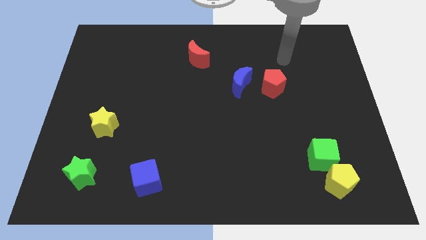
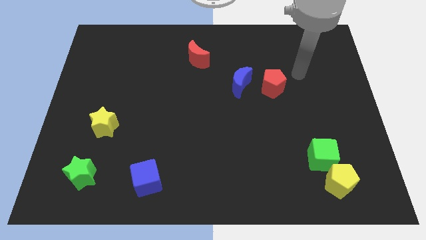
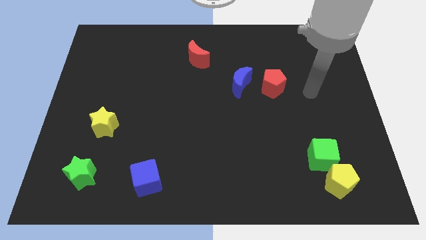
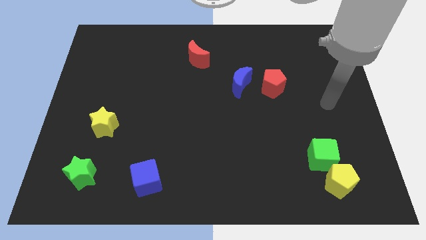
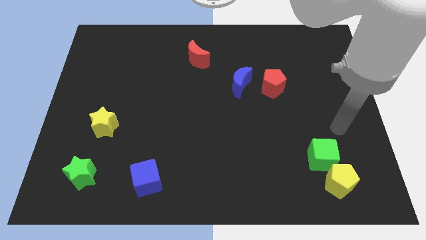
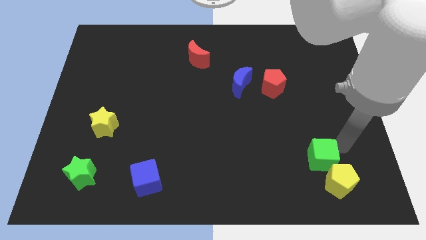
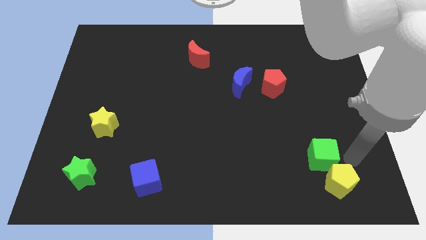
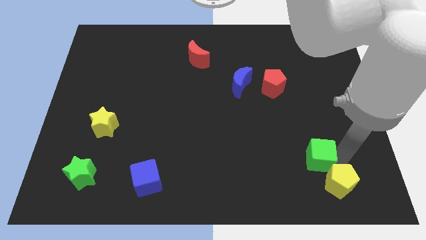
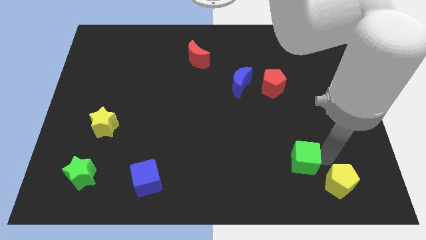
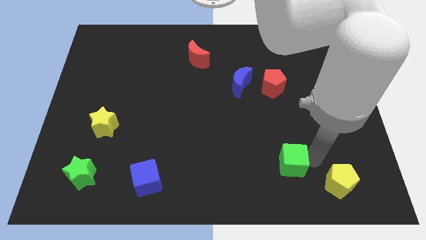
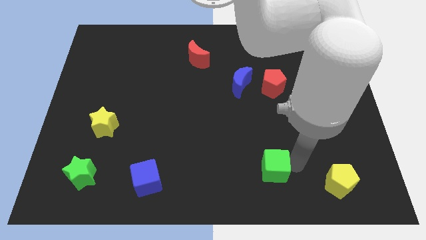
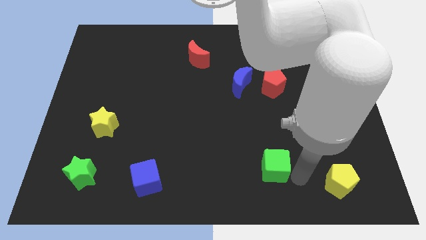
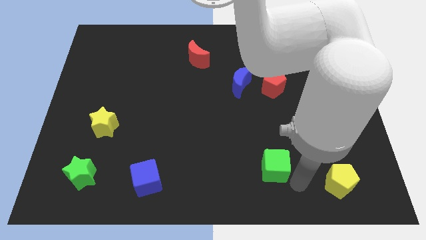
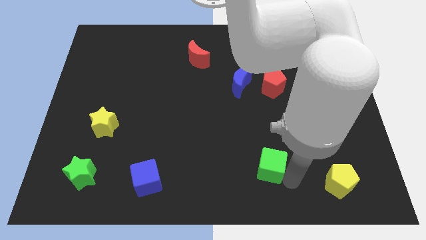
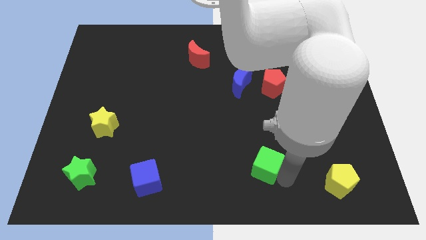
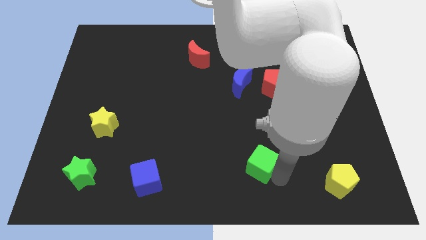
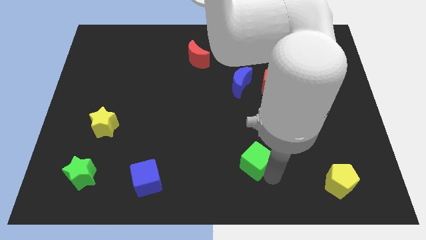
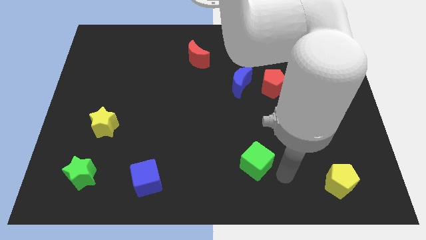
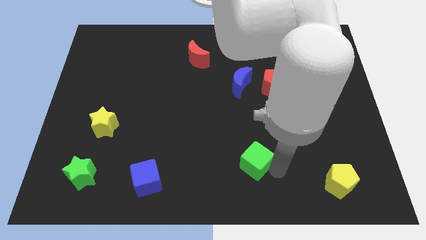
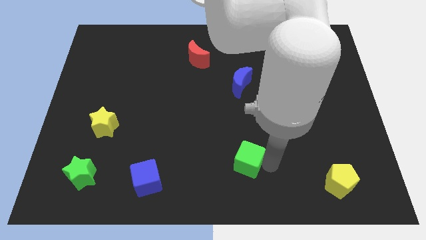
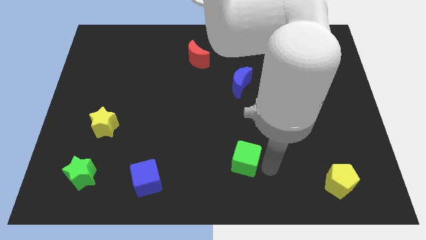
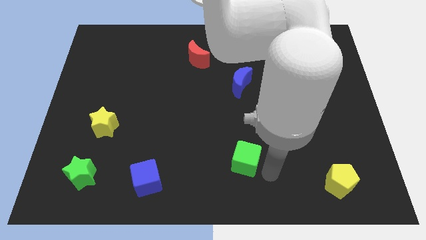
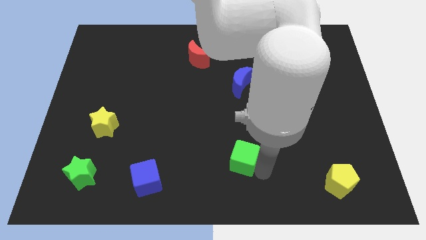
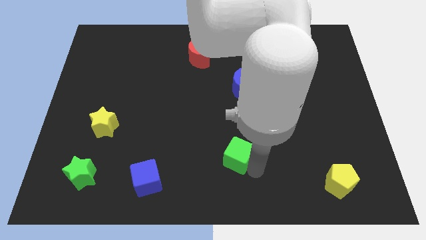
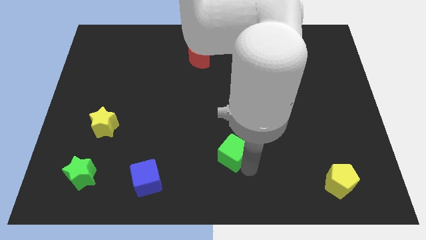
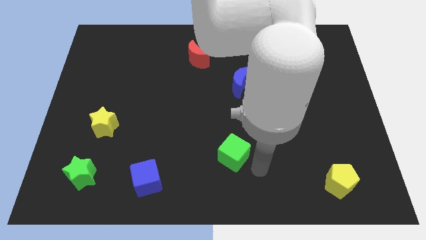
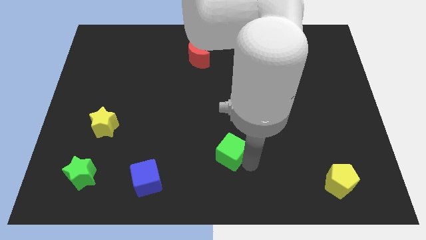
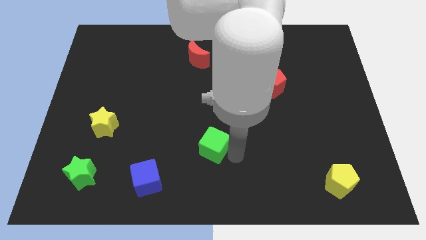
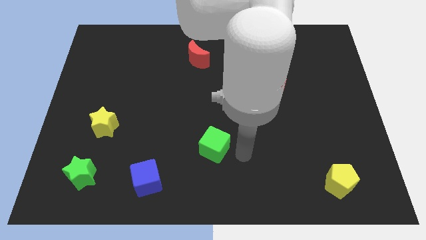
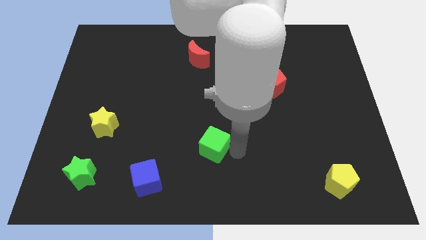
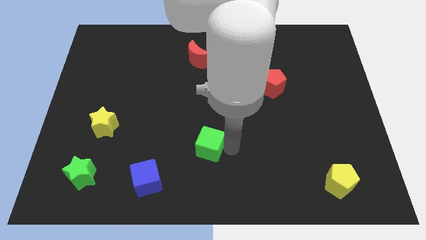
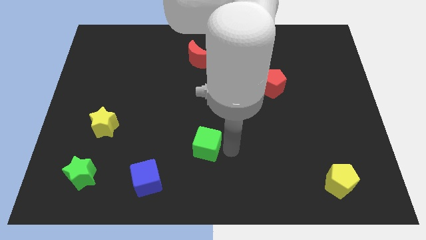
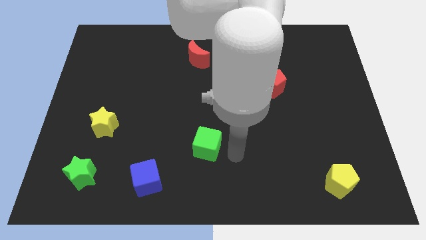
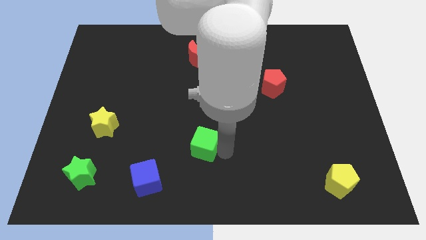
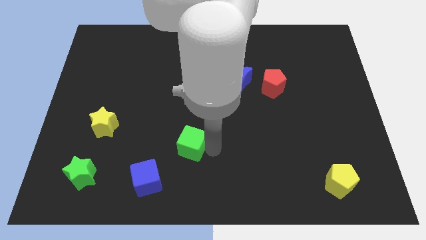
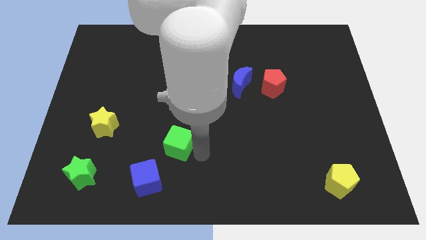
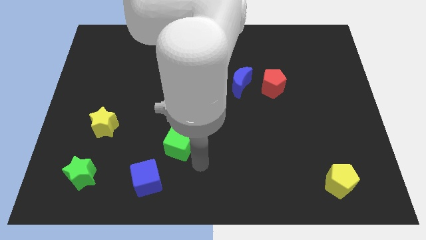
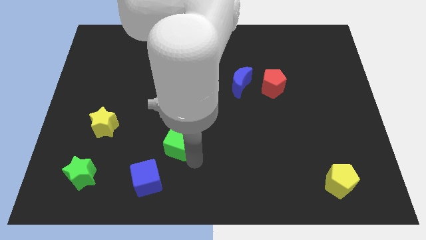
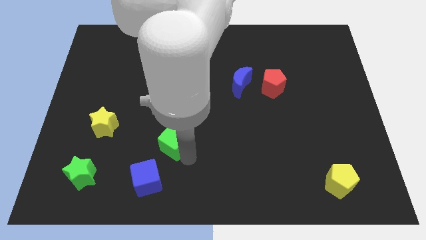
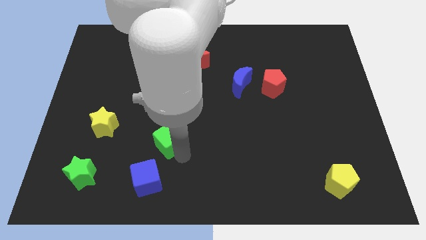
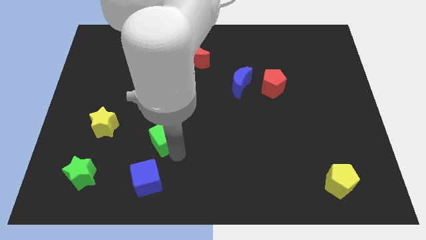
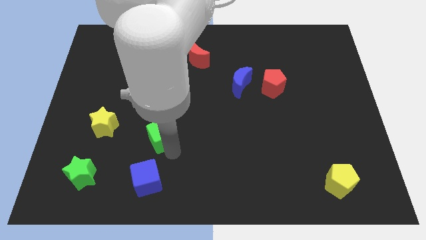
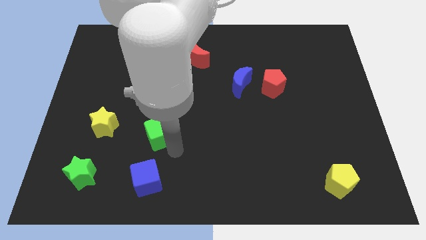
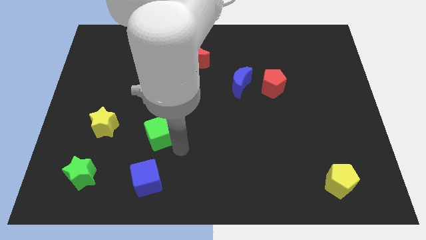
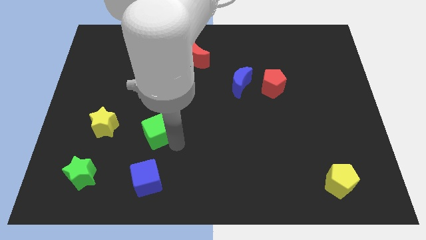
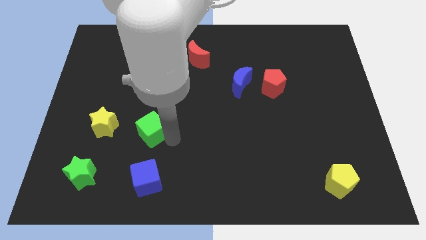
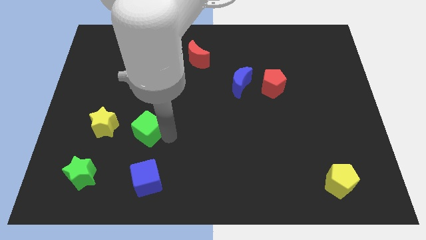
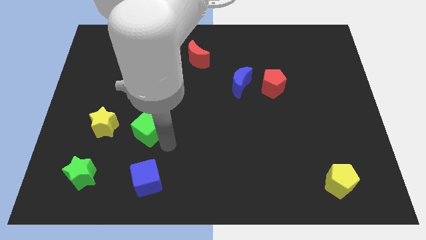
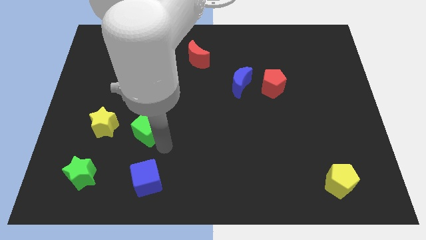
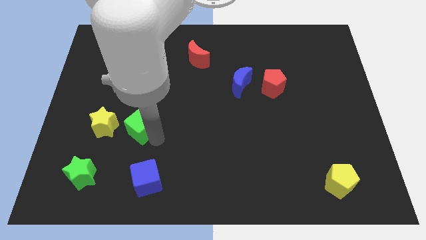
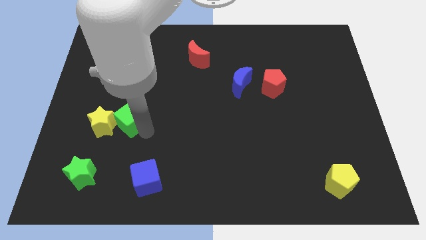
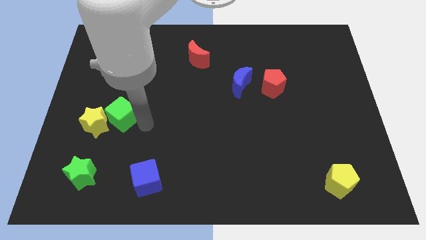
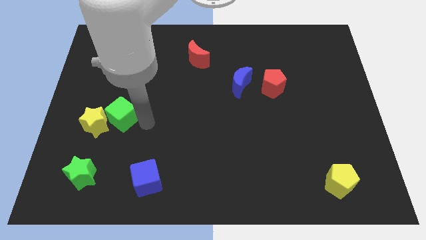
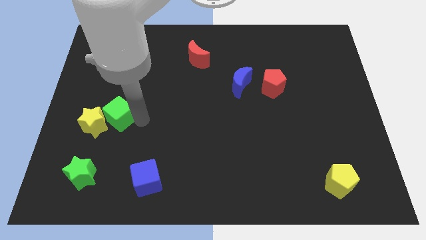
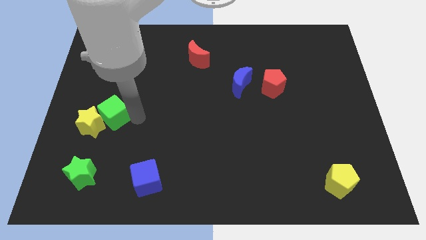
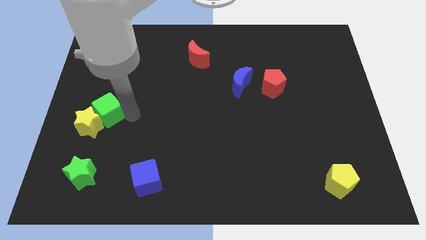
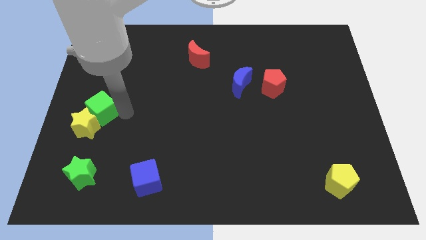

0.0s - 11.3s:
put the green cube to the left side

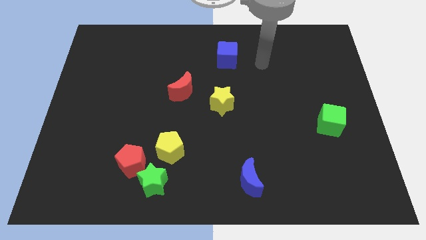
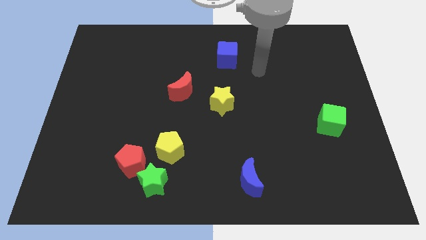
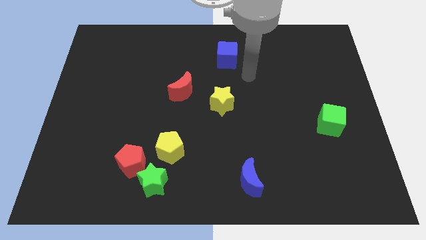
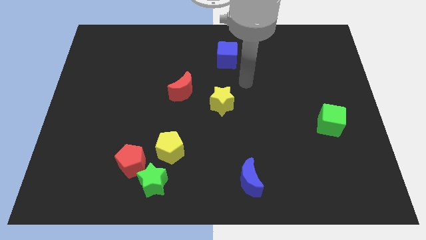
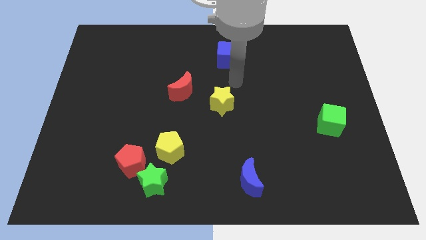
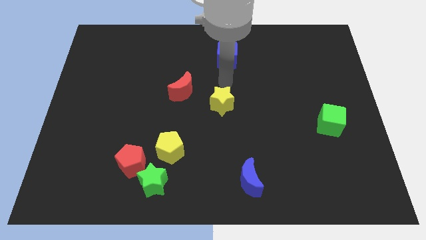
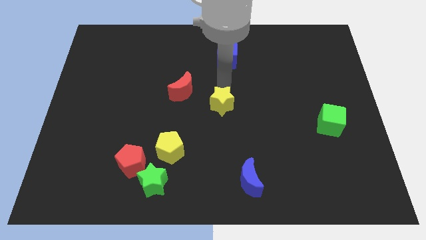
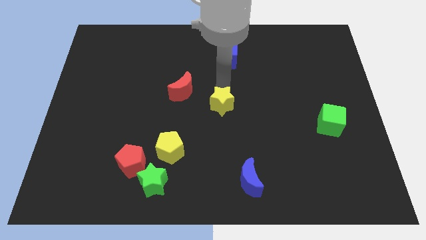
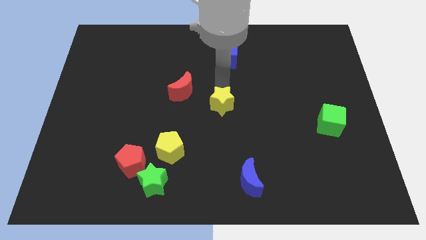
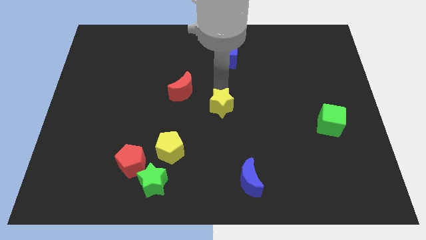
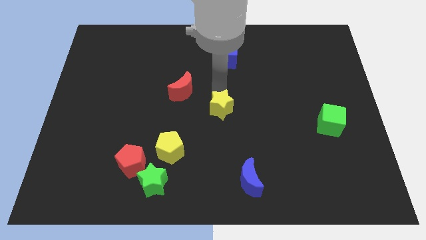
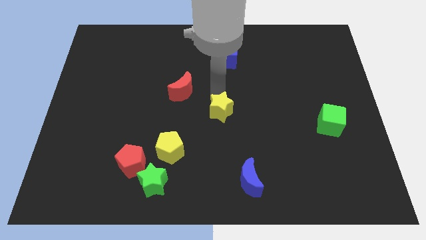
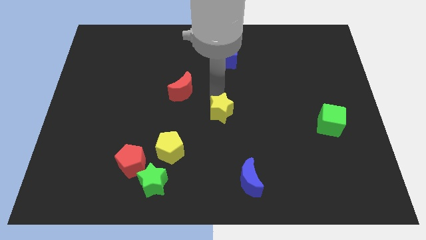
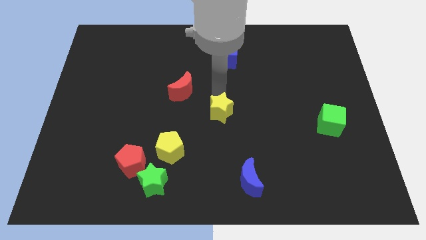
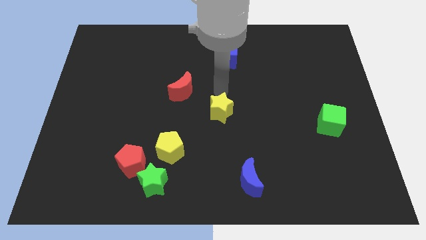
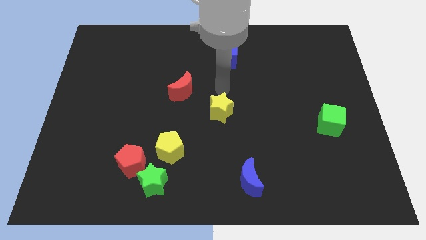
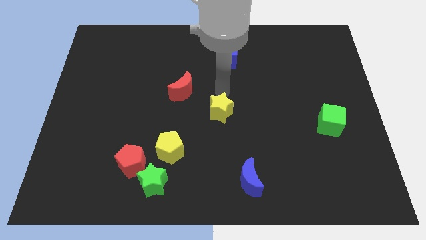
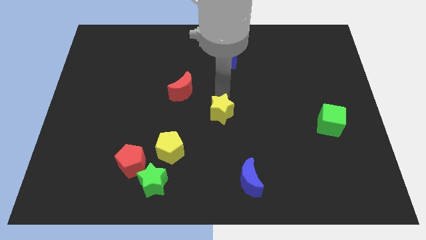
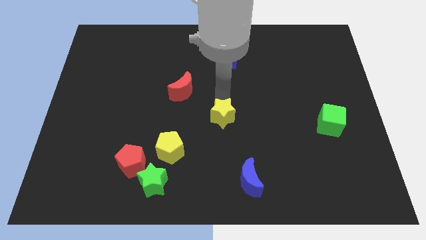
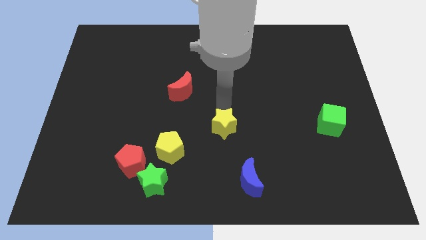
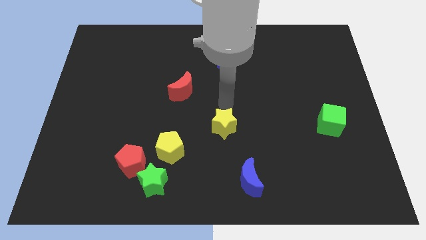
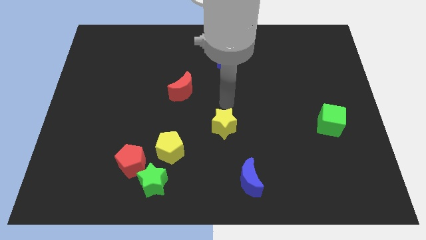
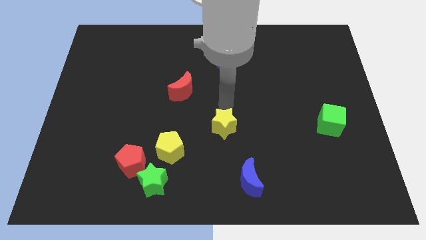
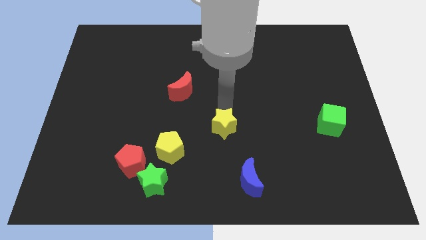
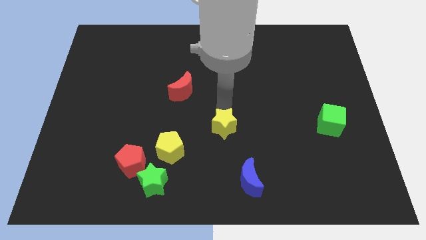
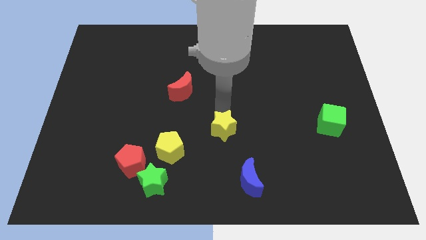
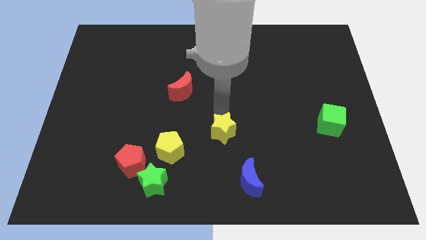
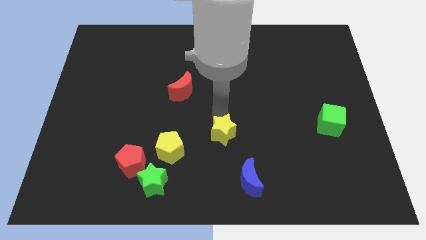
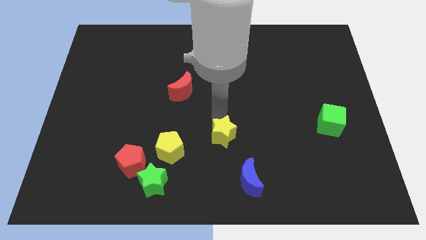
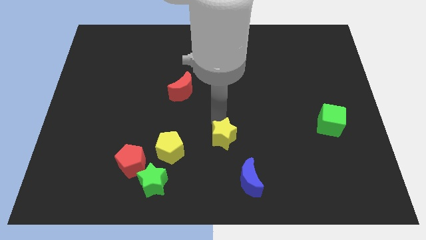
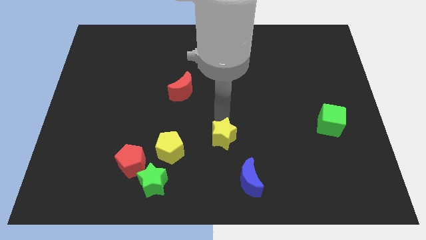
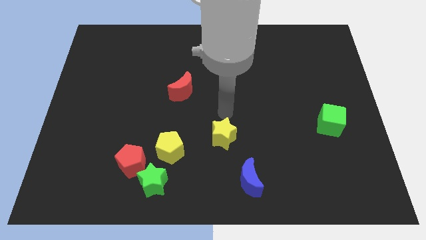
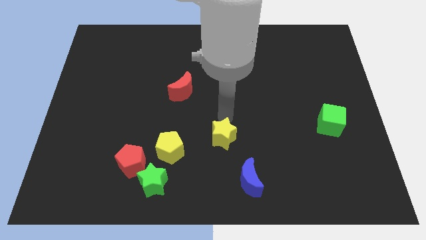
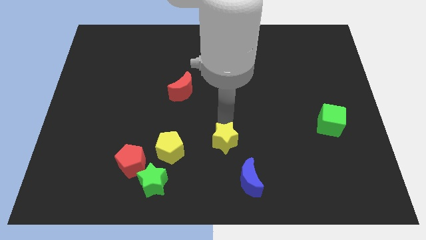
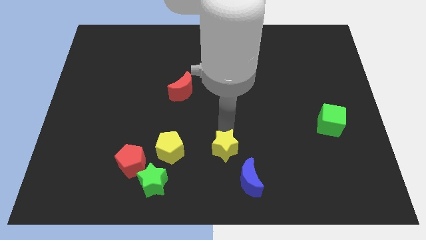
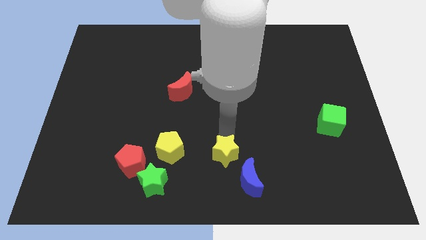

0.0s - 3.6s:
slide the yellow star to the bottom side
